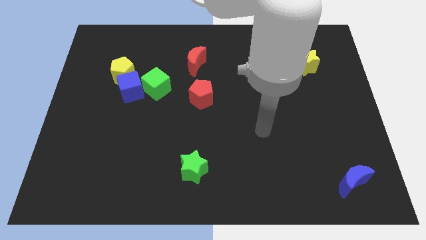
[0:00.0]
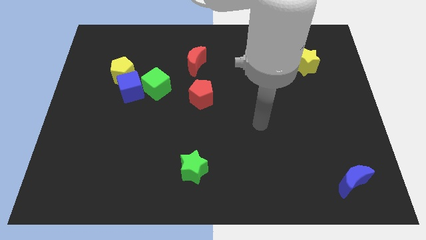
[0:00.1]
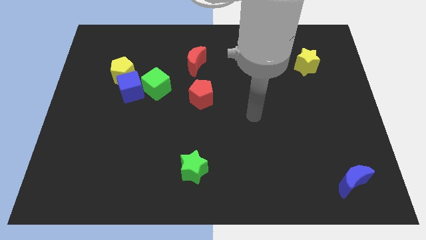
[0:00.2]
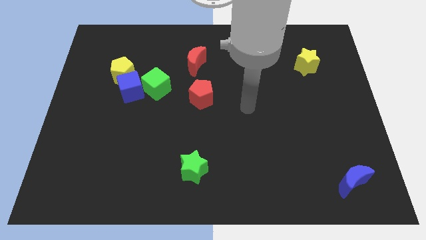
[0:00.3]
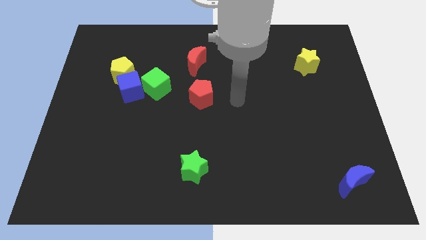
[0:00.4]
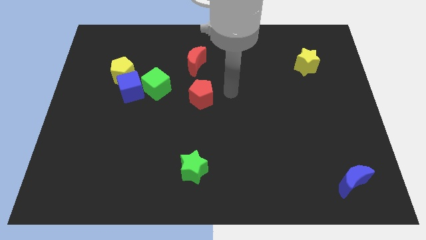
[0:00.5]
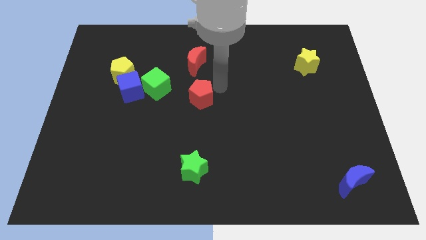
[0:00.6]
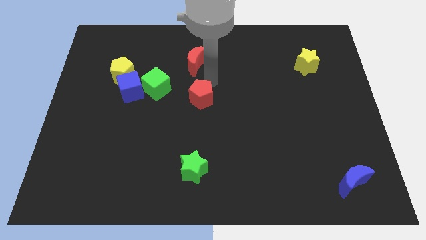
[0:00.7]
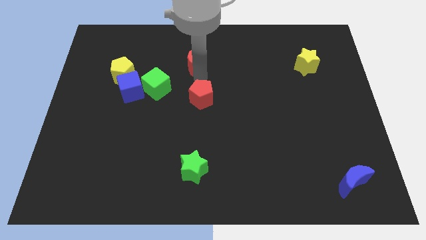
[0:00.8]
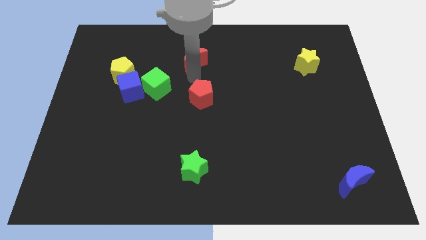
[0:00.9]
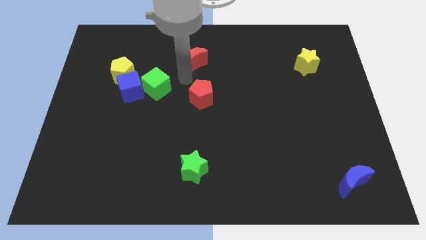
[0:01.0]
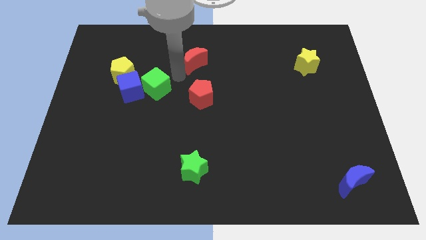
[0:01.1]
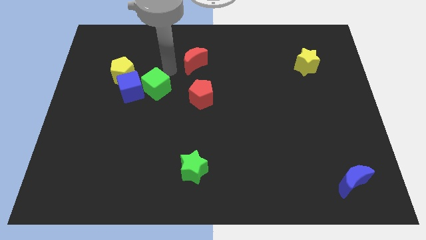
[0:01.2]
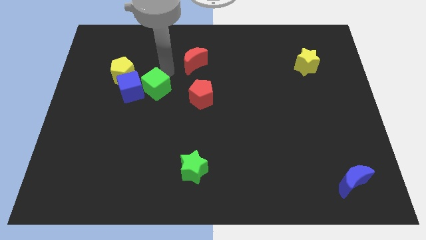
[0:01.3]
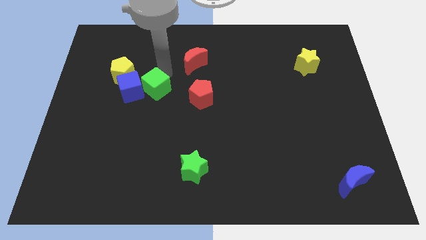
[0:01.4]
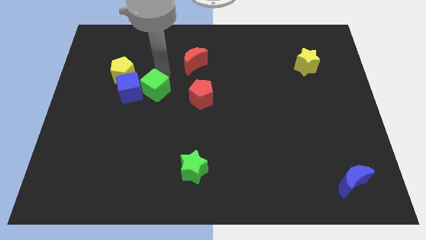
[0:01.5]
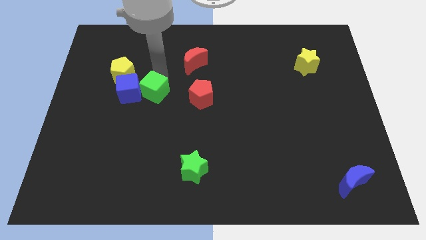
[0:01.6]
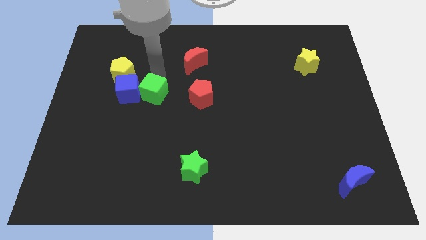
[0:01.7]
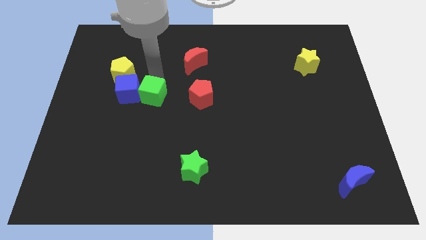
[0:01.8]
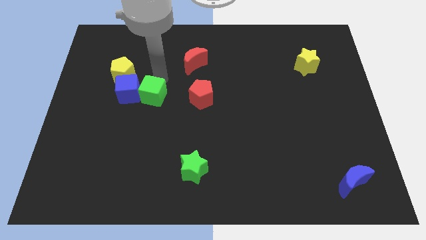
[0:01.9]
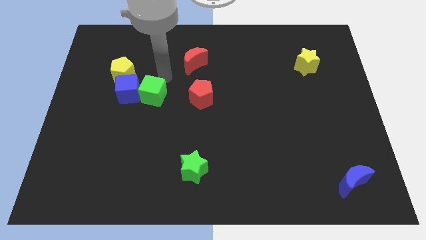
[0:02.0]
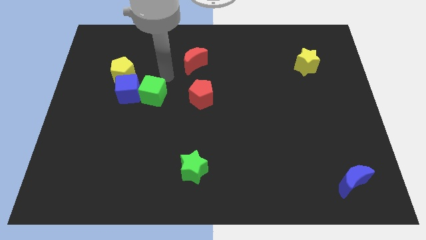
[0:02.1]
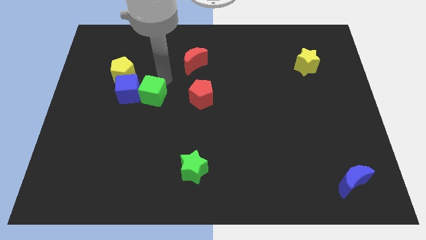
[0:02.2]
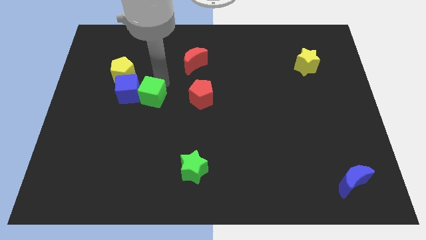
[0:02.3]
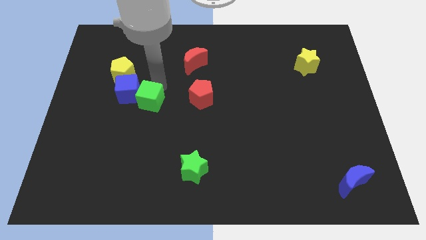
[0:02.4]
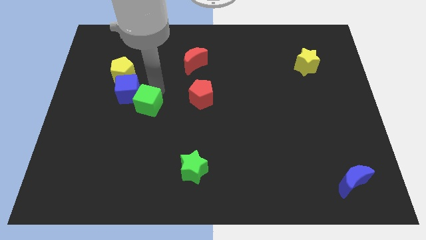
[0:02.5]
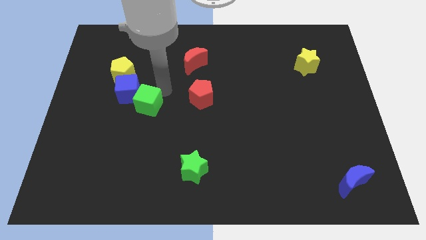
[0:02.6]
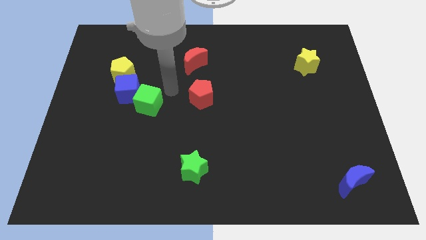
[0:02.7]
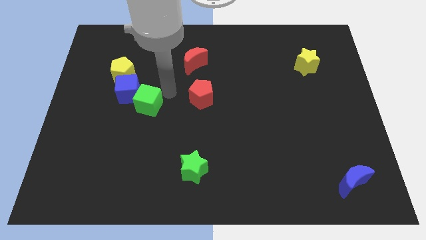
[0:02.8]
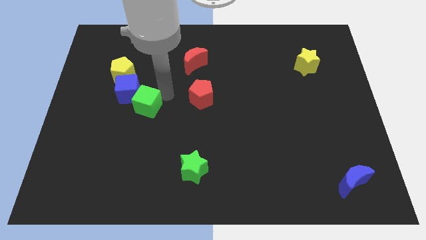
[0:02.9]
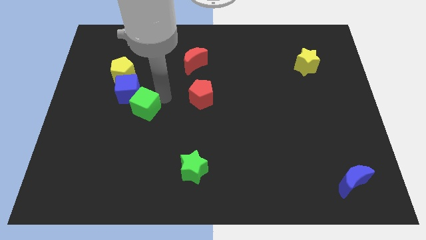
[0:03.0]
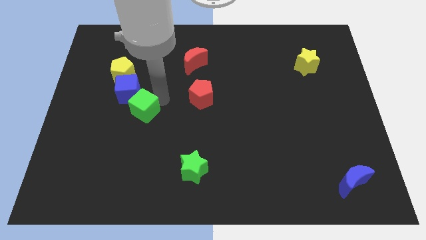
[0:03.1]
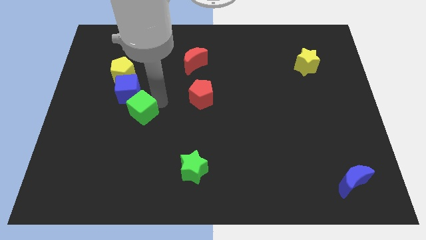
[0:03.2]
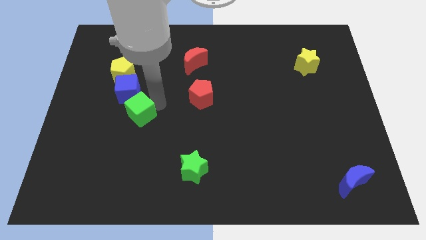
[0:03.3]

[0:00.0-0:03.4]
slightly push the green cube downwards and then left

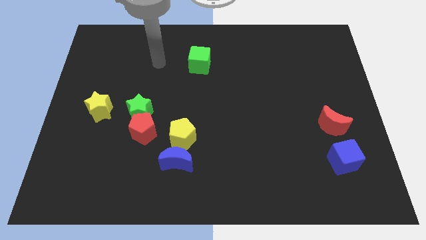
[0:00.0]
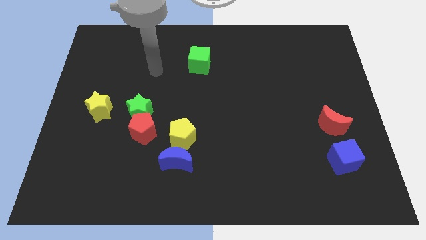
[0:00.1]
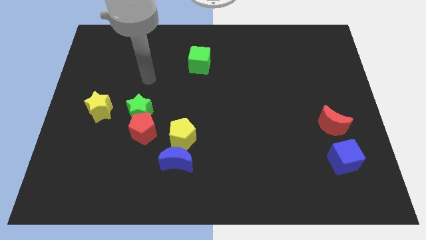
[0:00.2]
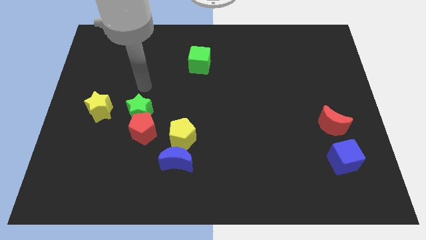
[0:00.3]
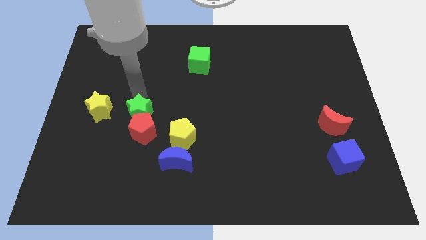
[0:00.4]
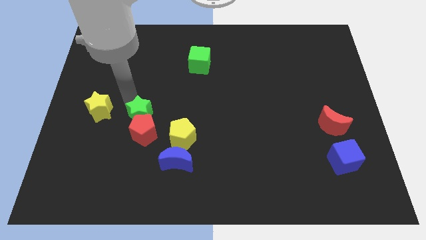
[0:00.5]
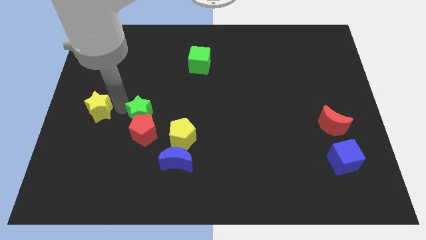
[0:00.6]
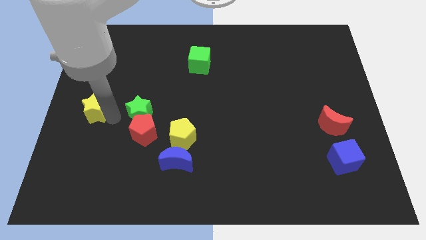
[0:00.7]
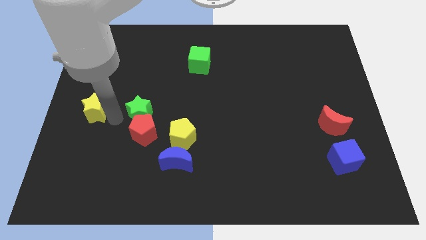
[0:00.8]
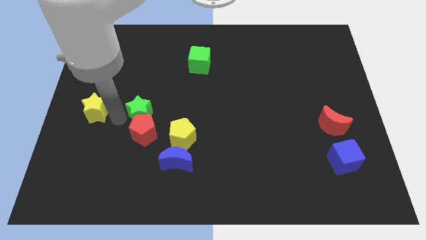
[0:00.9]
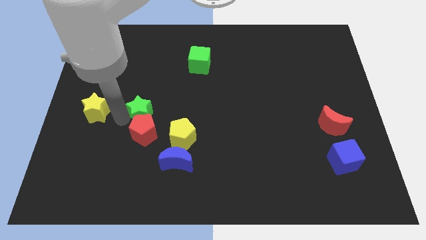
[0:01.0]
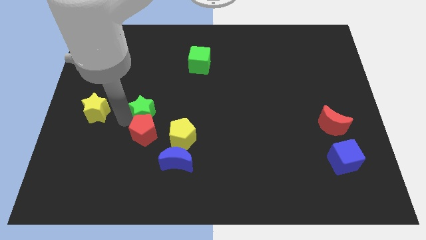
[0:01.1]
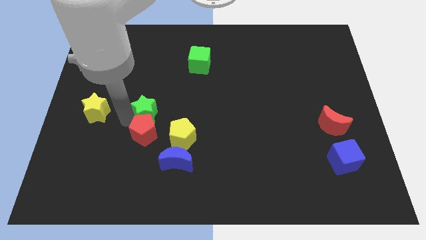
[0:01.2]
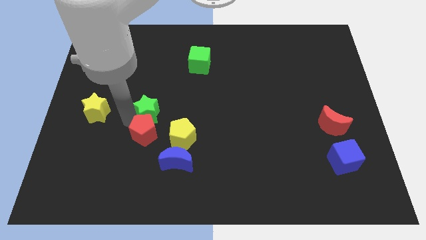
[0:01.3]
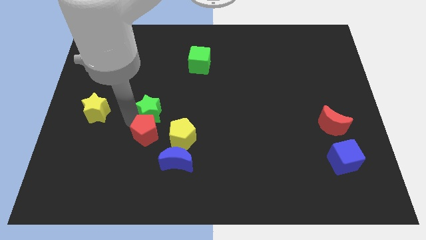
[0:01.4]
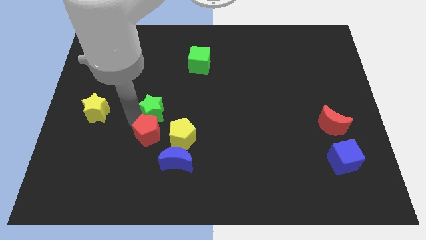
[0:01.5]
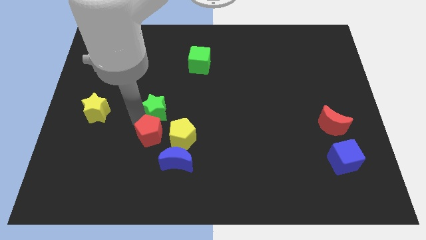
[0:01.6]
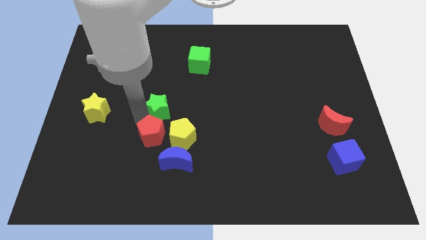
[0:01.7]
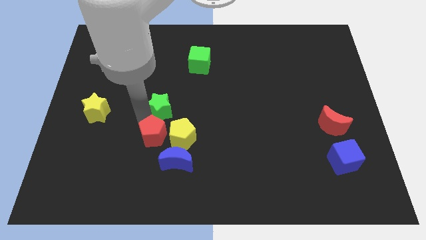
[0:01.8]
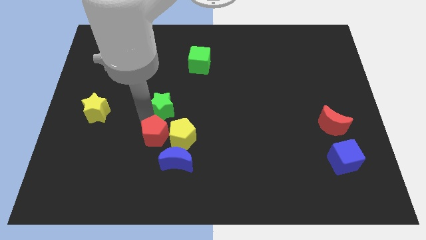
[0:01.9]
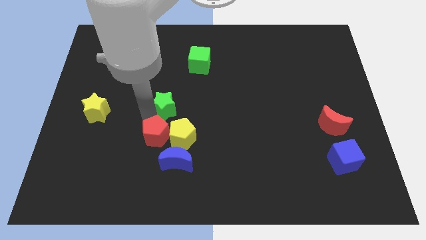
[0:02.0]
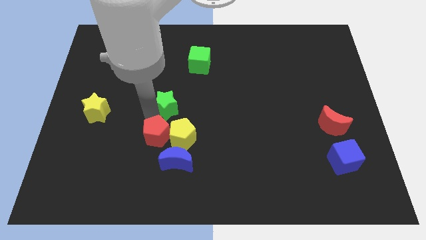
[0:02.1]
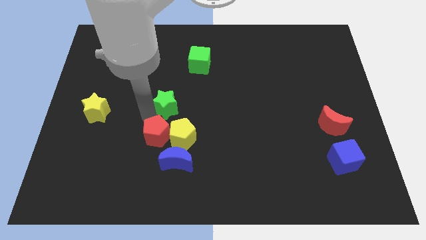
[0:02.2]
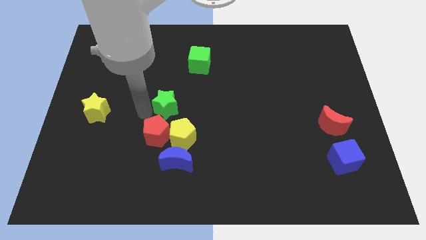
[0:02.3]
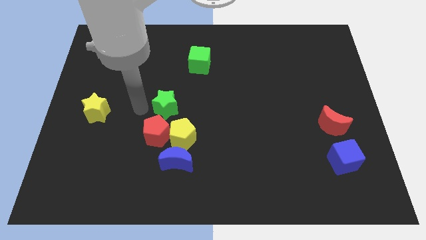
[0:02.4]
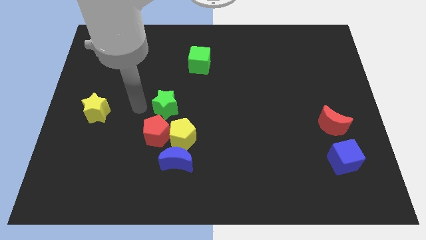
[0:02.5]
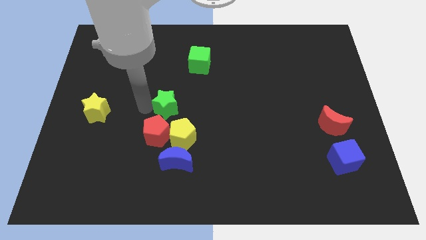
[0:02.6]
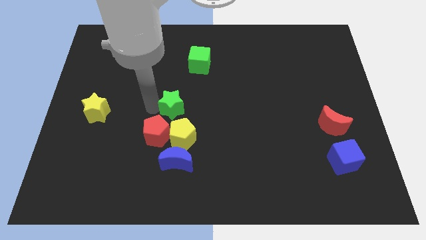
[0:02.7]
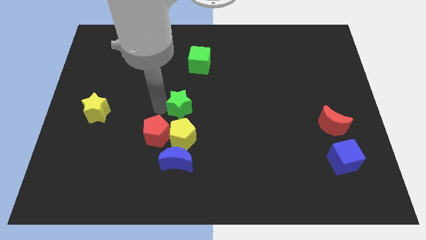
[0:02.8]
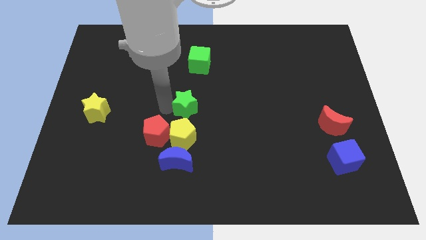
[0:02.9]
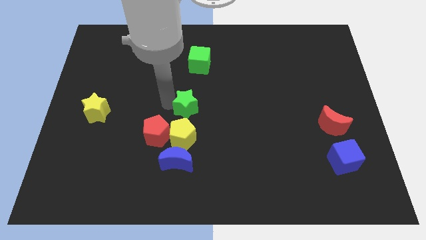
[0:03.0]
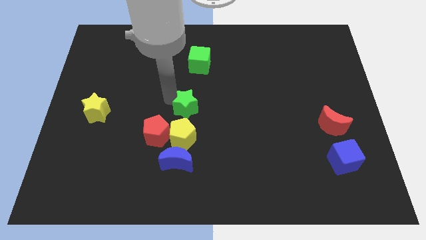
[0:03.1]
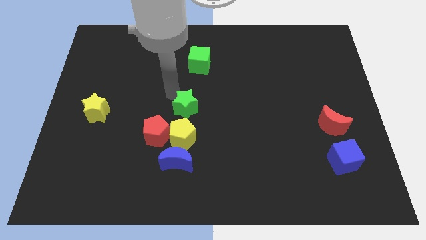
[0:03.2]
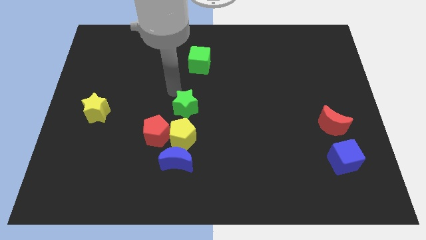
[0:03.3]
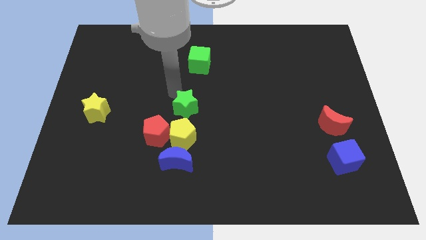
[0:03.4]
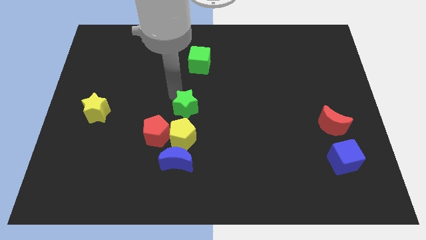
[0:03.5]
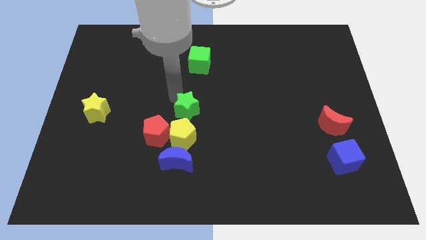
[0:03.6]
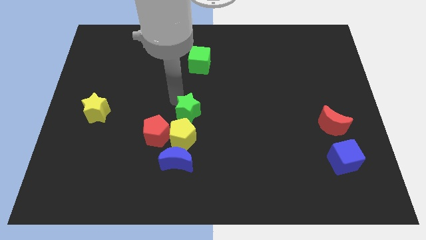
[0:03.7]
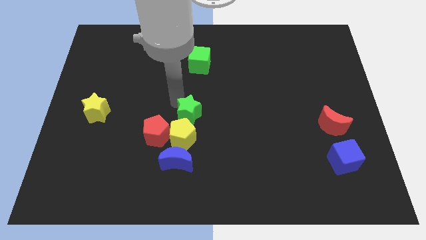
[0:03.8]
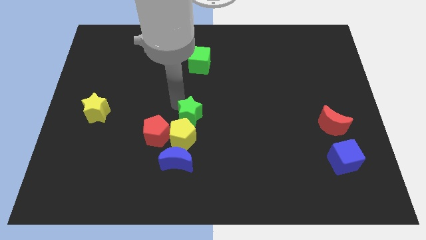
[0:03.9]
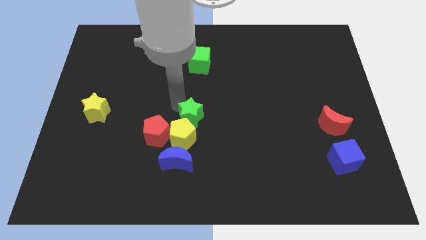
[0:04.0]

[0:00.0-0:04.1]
slightly push the green star downwards and right
